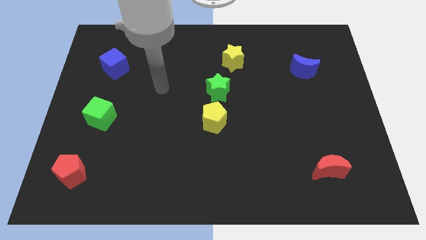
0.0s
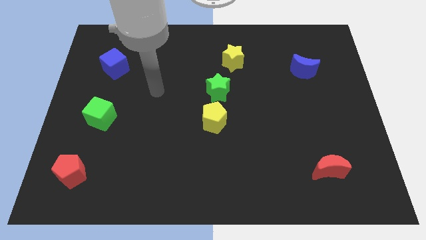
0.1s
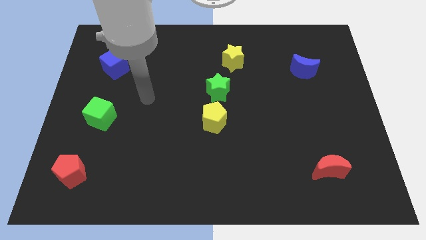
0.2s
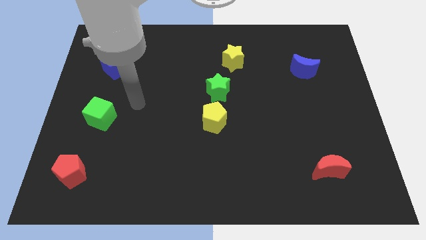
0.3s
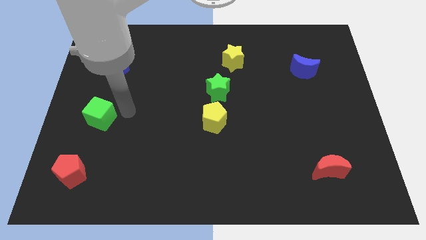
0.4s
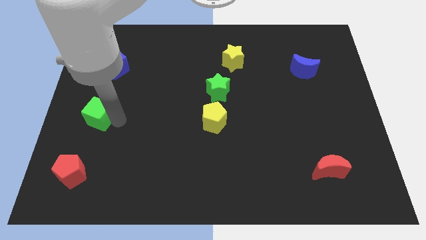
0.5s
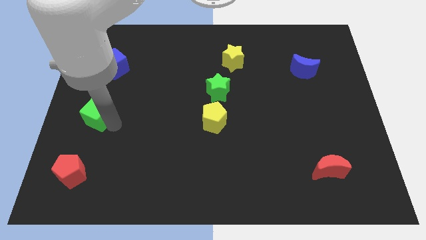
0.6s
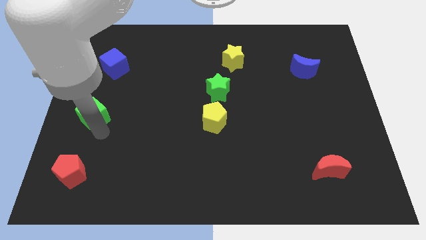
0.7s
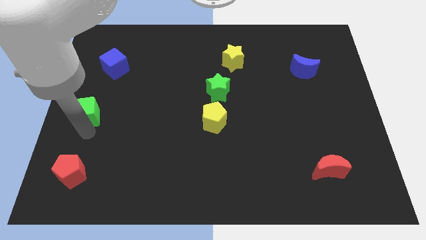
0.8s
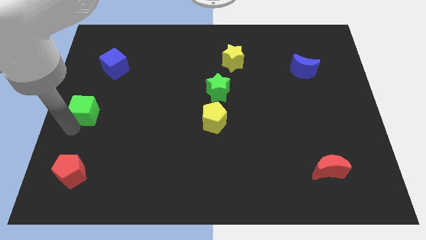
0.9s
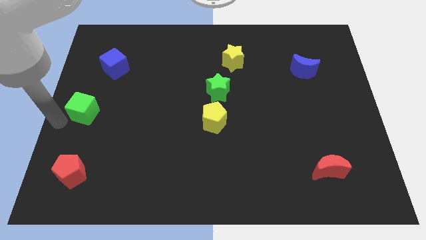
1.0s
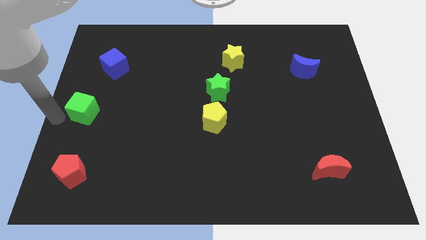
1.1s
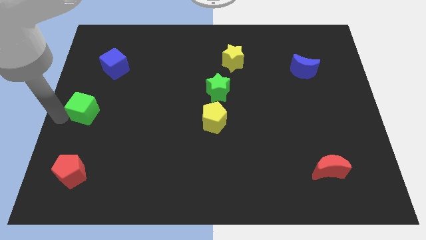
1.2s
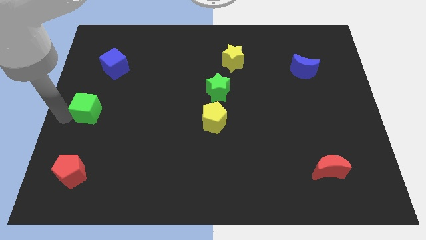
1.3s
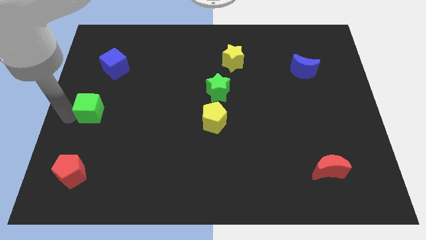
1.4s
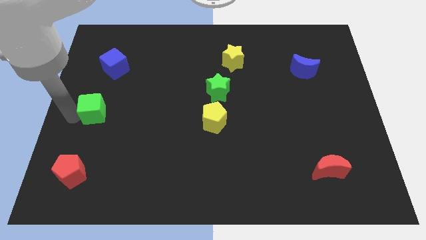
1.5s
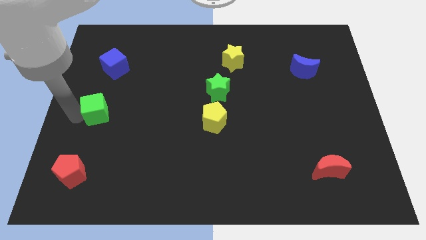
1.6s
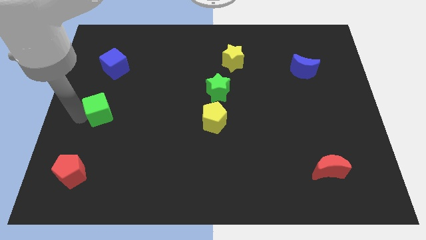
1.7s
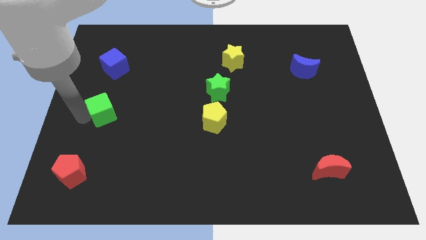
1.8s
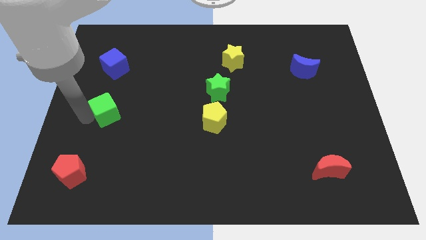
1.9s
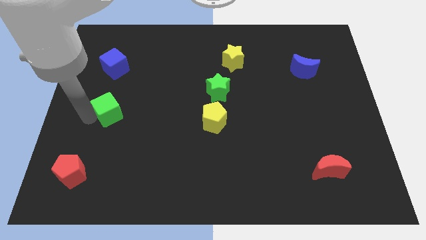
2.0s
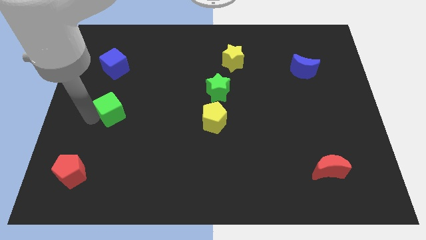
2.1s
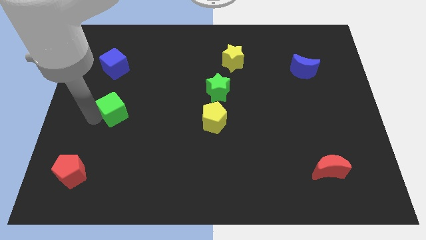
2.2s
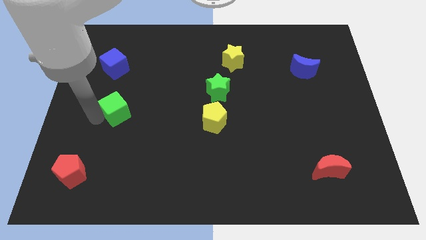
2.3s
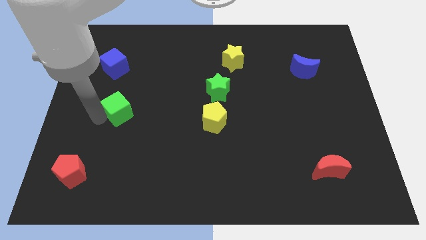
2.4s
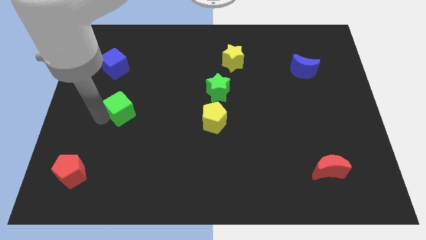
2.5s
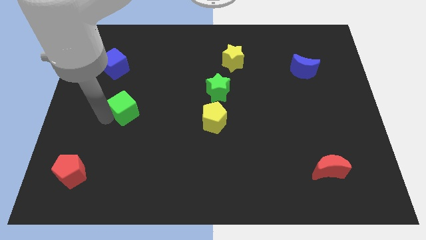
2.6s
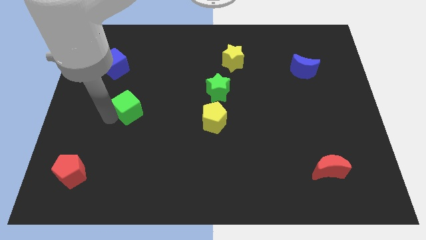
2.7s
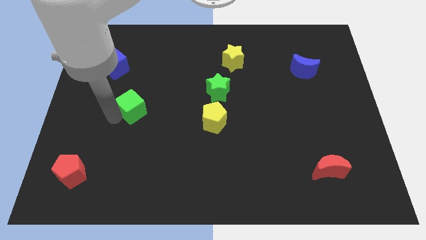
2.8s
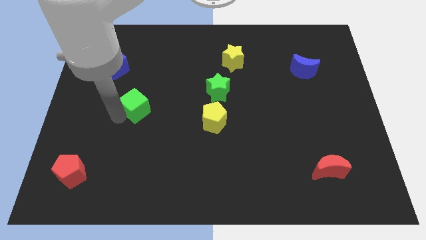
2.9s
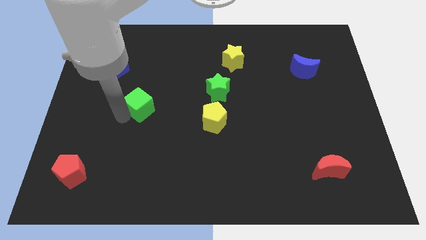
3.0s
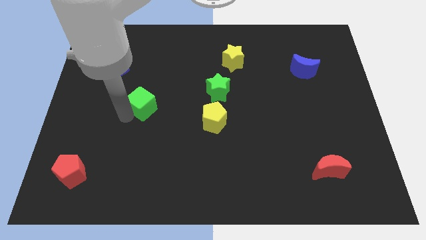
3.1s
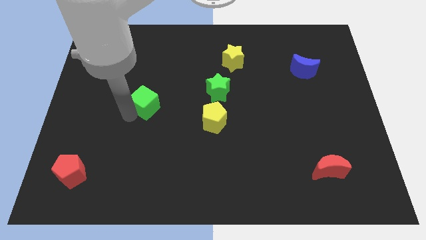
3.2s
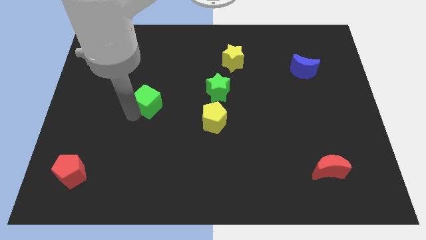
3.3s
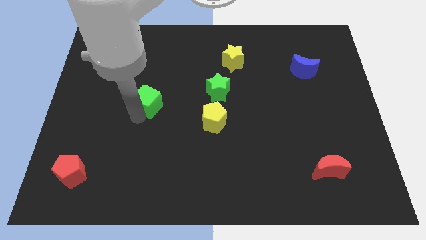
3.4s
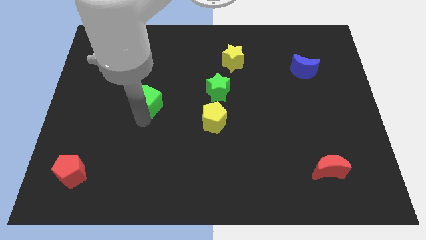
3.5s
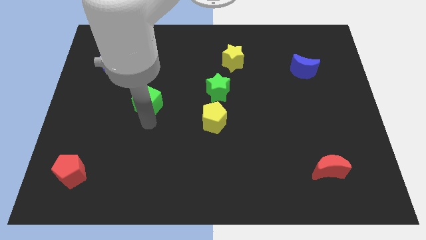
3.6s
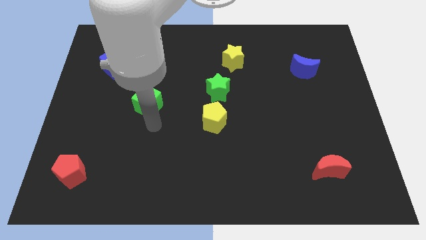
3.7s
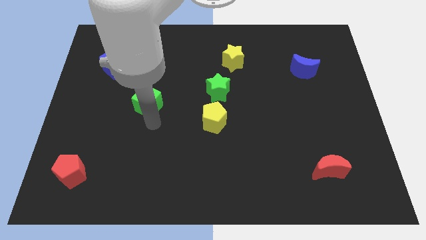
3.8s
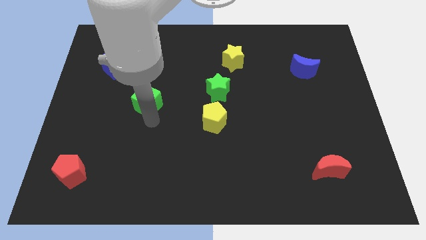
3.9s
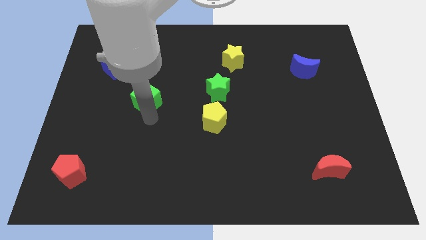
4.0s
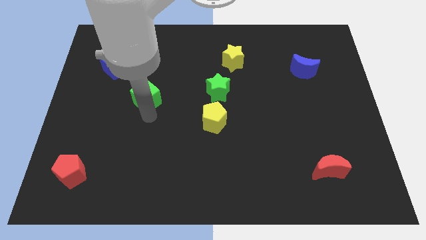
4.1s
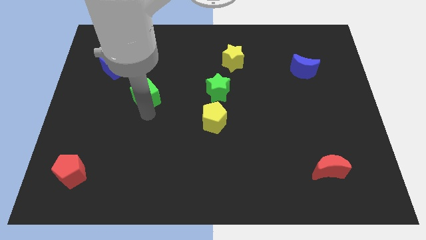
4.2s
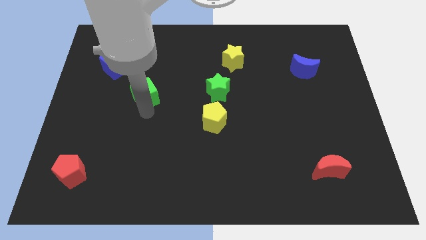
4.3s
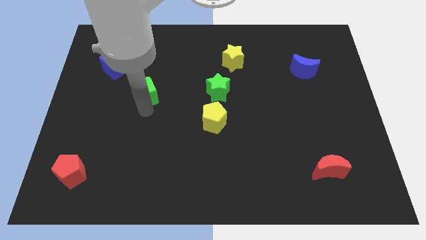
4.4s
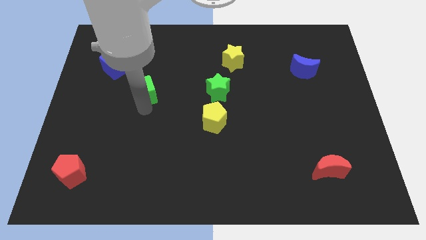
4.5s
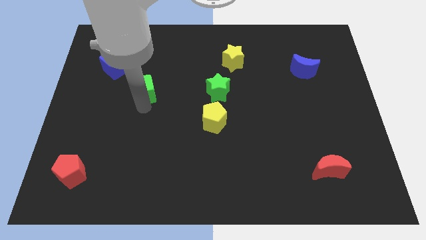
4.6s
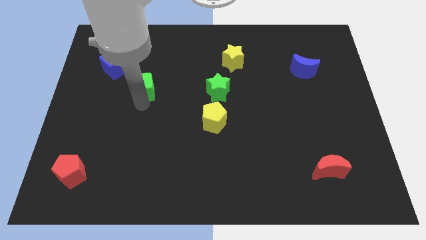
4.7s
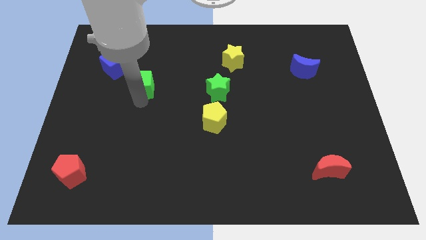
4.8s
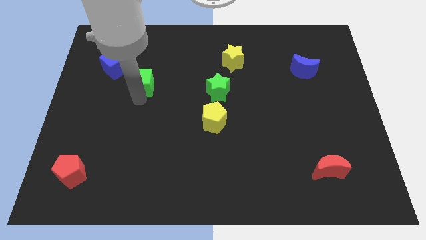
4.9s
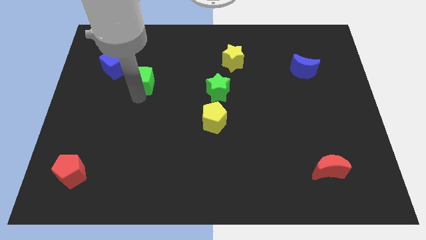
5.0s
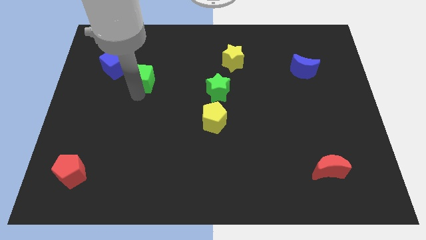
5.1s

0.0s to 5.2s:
push the green cube to the right side of the blue cube

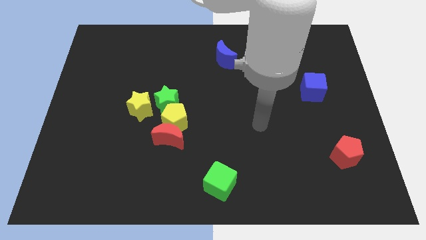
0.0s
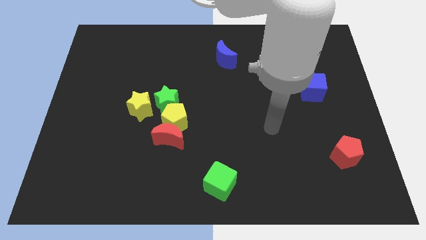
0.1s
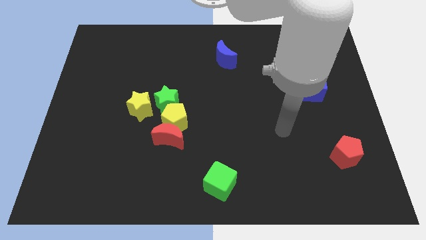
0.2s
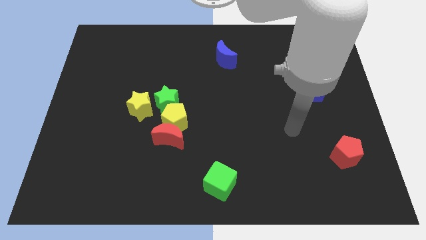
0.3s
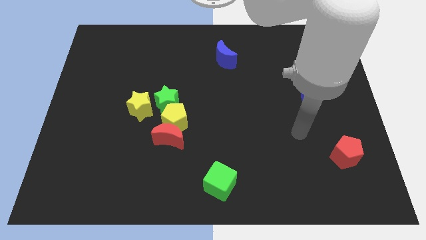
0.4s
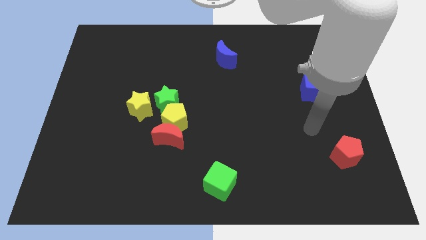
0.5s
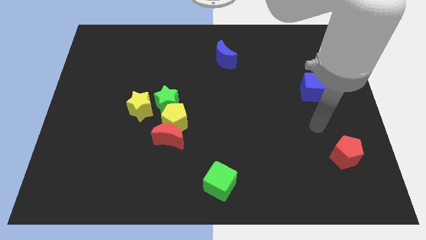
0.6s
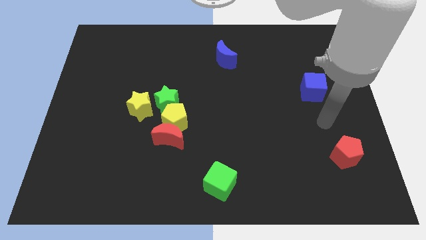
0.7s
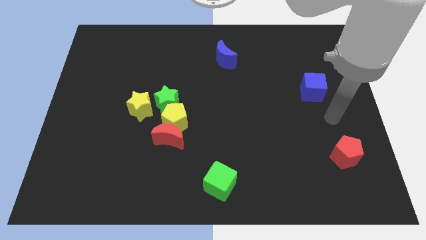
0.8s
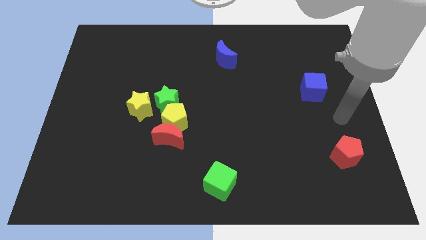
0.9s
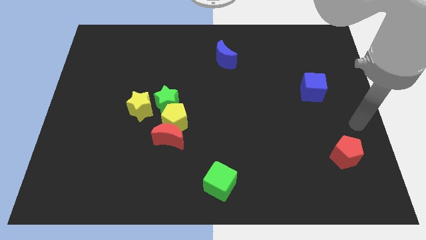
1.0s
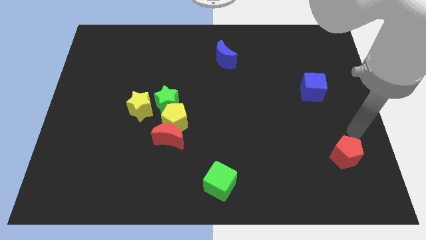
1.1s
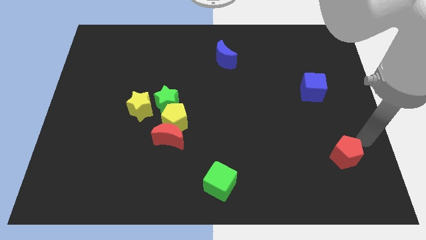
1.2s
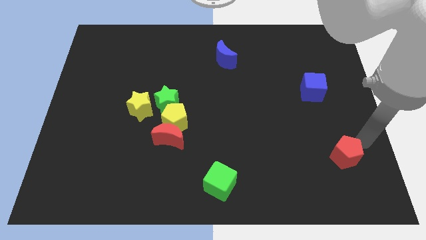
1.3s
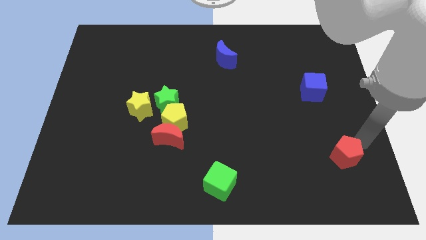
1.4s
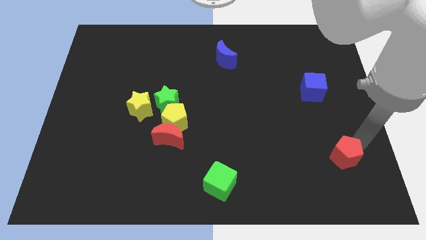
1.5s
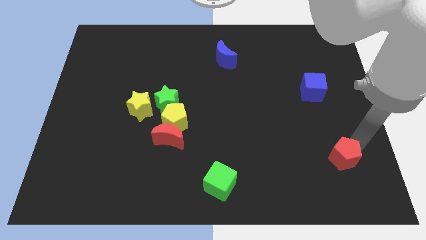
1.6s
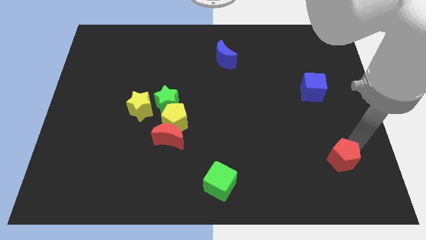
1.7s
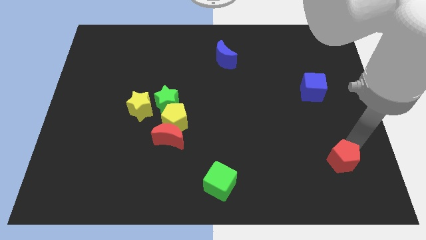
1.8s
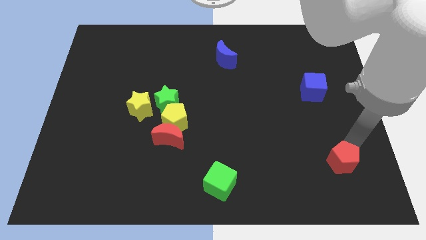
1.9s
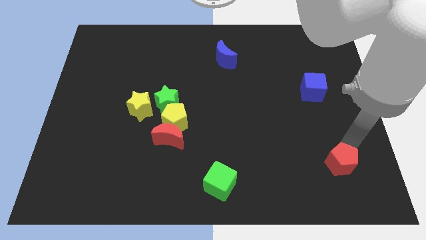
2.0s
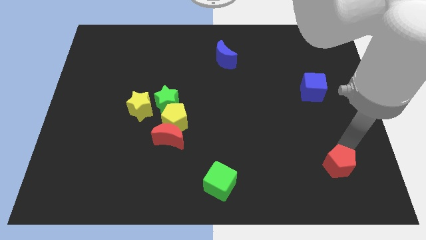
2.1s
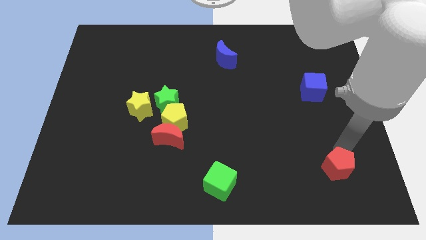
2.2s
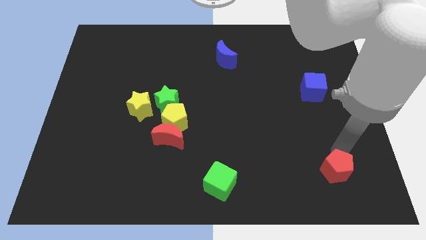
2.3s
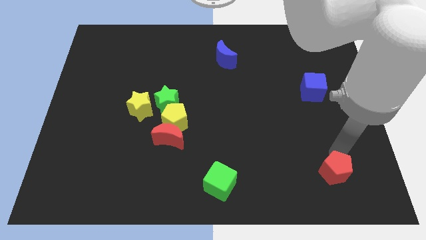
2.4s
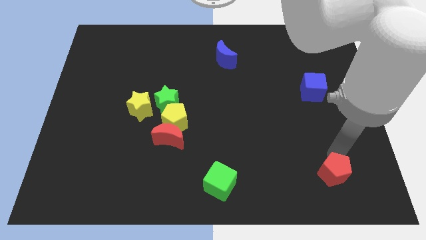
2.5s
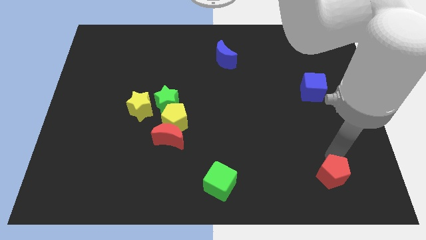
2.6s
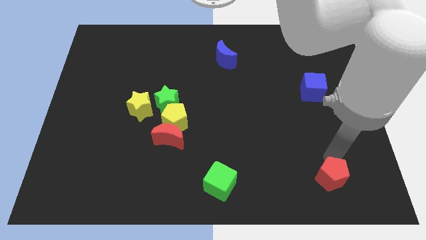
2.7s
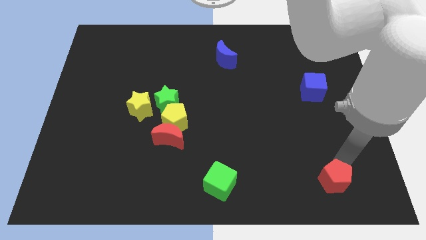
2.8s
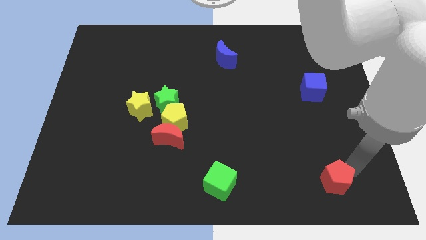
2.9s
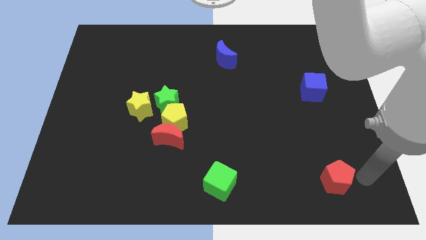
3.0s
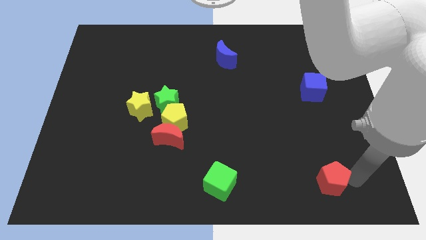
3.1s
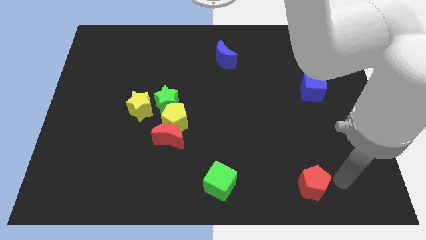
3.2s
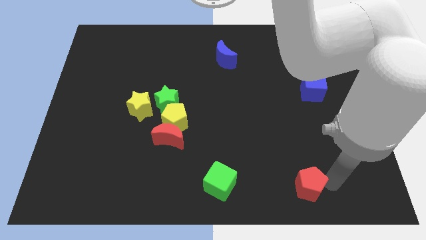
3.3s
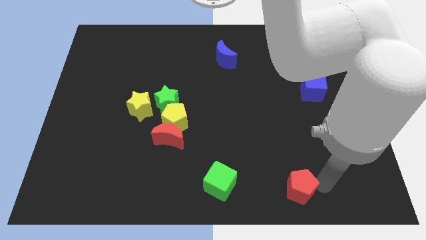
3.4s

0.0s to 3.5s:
slide the red pentagon to the right side of the green cube
